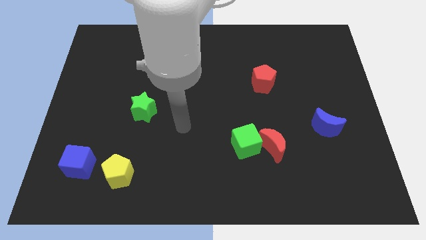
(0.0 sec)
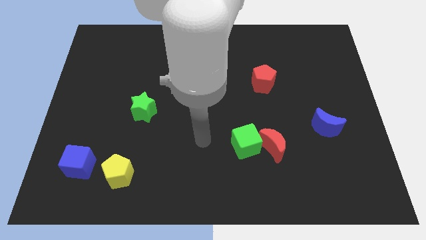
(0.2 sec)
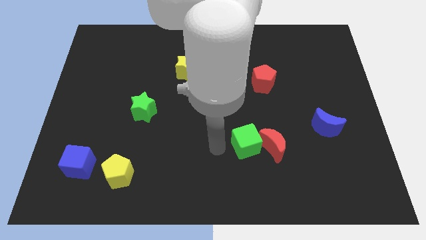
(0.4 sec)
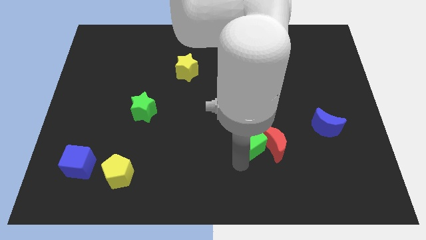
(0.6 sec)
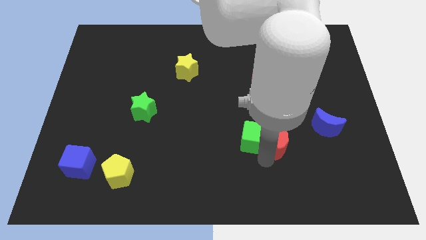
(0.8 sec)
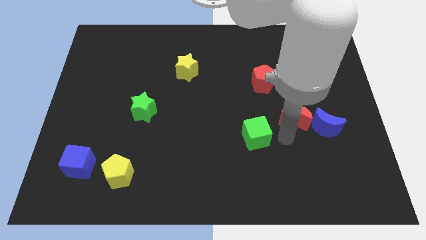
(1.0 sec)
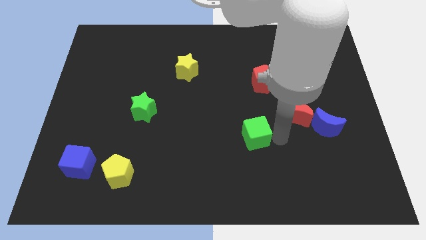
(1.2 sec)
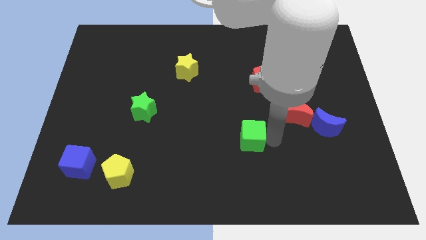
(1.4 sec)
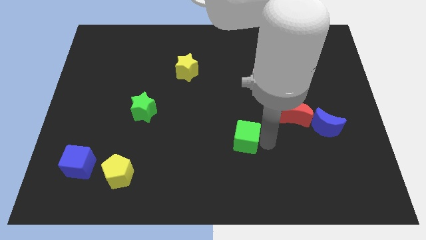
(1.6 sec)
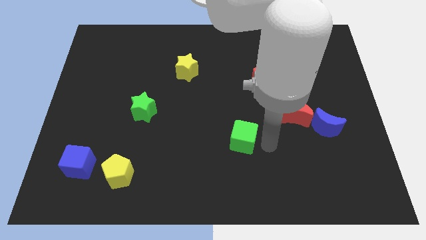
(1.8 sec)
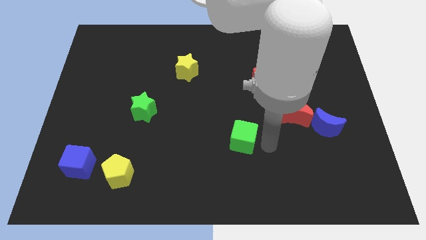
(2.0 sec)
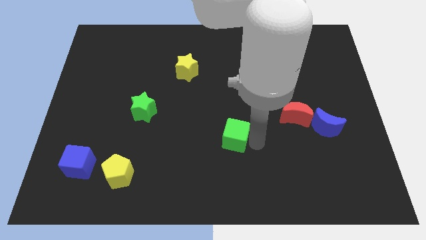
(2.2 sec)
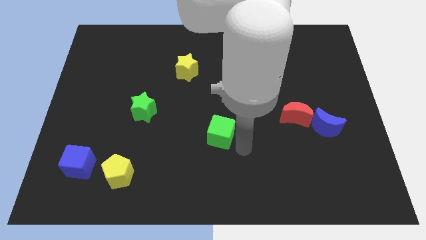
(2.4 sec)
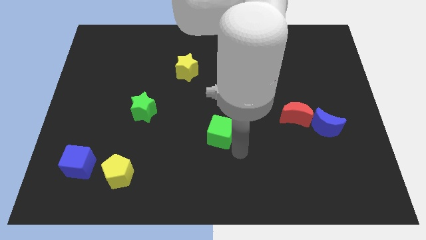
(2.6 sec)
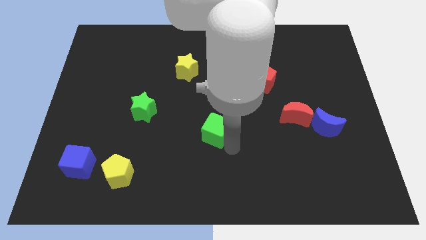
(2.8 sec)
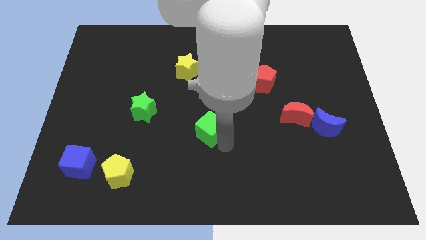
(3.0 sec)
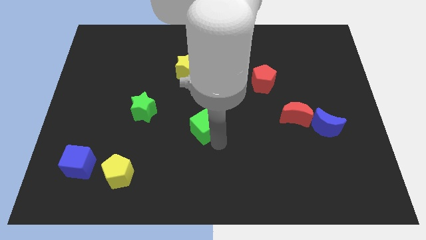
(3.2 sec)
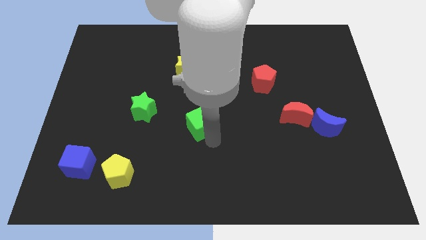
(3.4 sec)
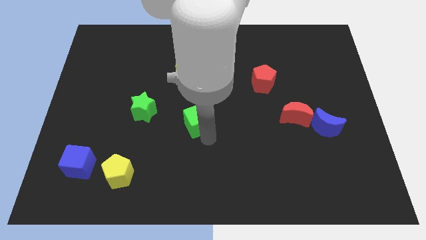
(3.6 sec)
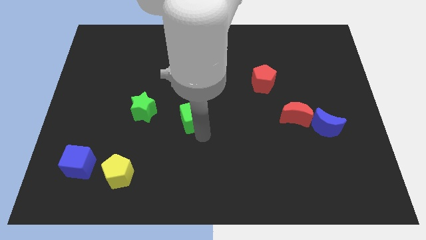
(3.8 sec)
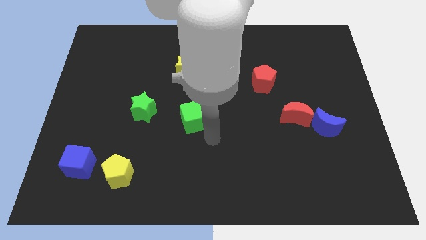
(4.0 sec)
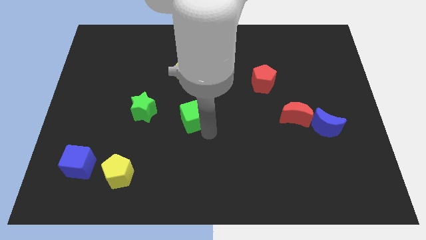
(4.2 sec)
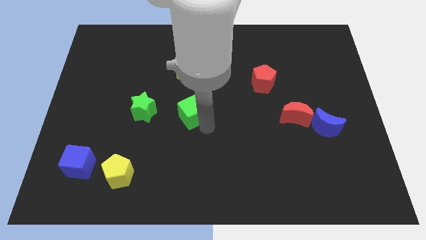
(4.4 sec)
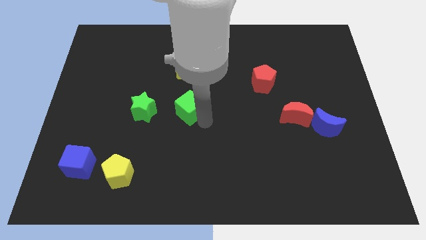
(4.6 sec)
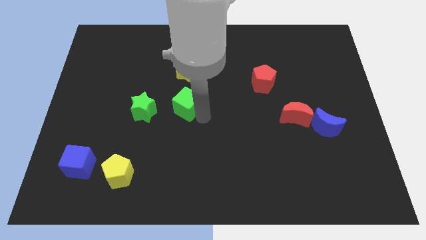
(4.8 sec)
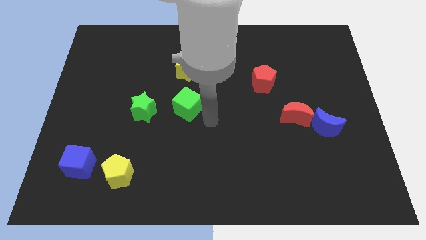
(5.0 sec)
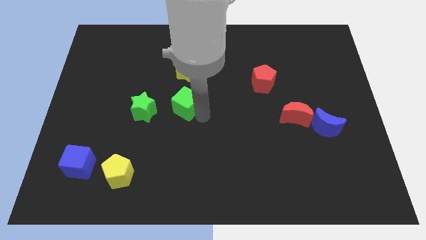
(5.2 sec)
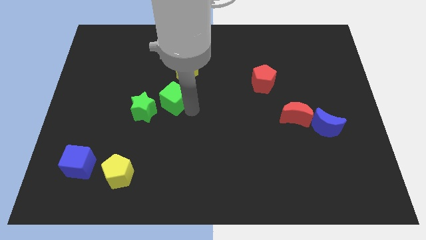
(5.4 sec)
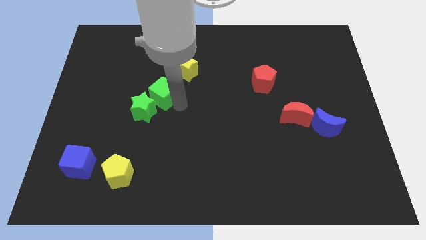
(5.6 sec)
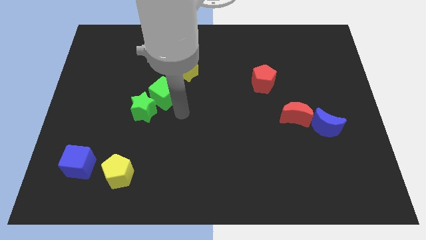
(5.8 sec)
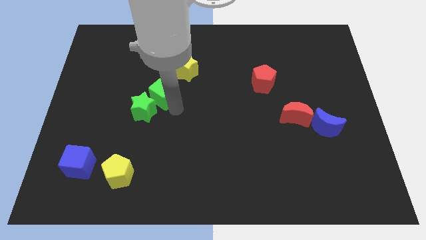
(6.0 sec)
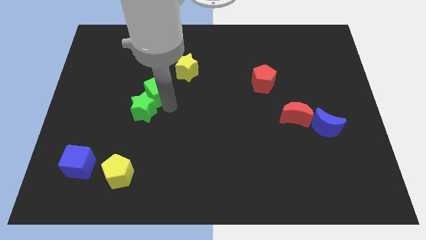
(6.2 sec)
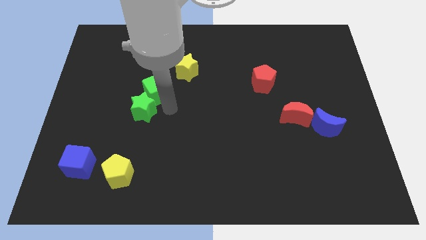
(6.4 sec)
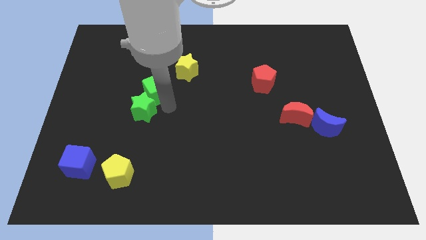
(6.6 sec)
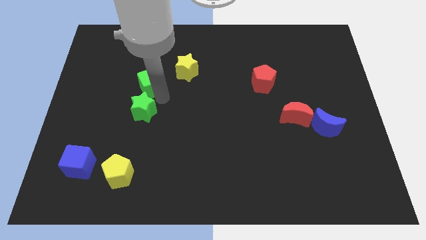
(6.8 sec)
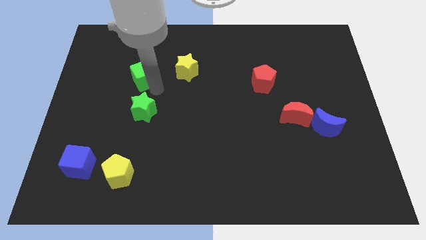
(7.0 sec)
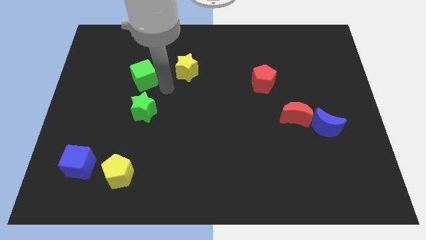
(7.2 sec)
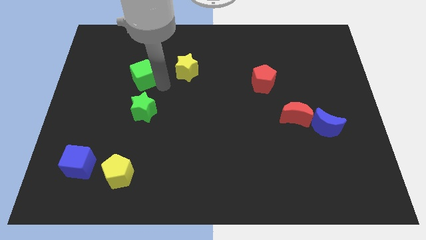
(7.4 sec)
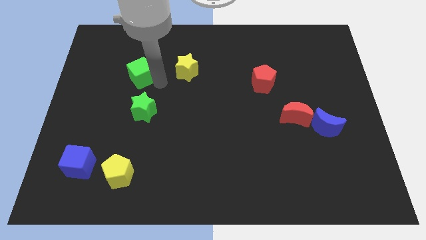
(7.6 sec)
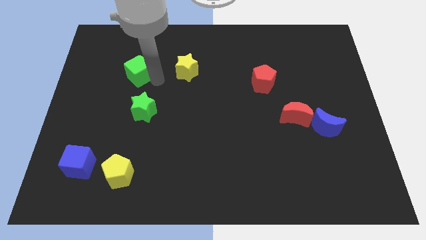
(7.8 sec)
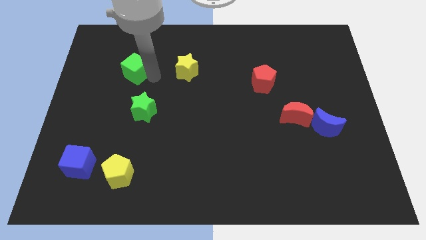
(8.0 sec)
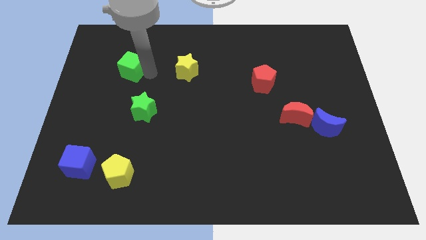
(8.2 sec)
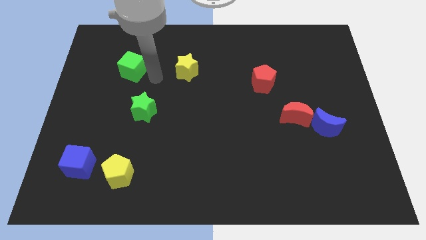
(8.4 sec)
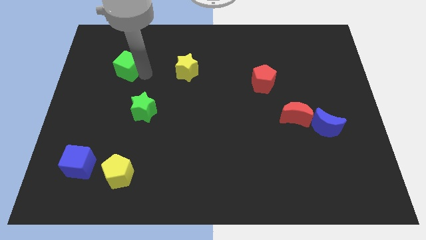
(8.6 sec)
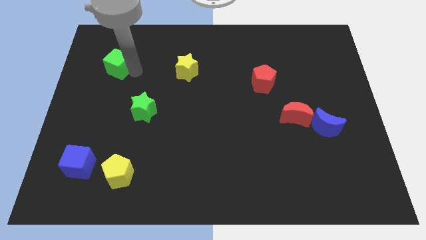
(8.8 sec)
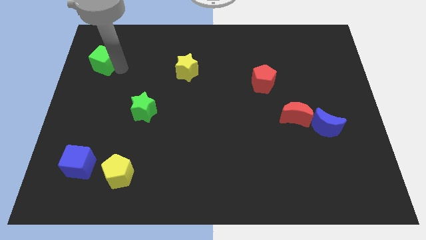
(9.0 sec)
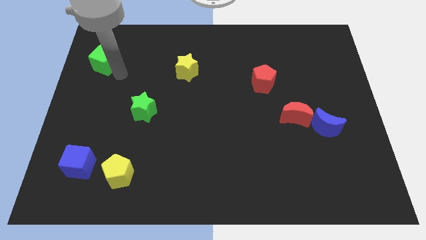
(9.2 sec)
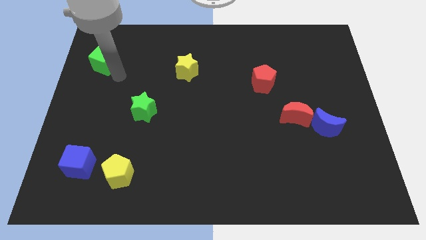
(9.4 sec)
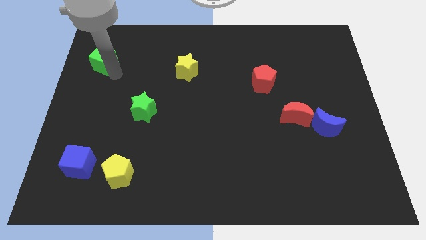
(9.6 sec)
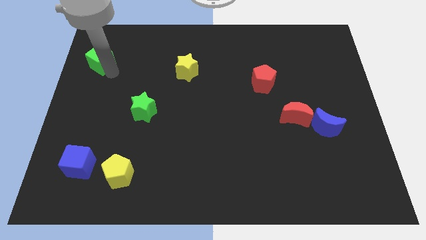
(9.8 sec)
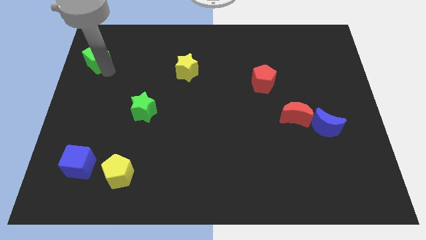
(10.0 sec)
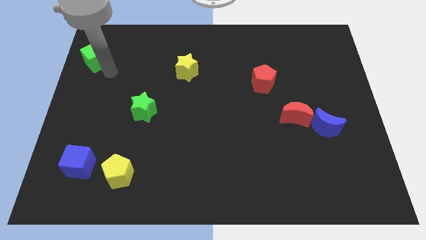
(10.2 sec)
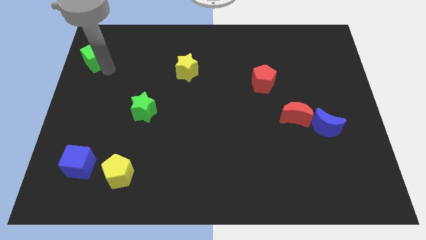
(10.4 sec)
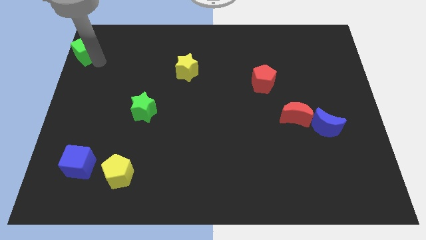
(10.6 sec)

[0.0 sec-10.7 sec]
move the green cube to the top left
